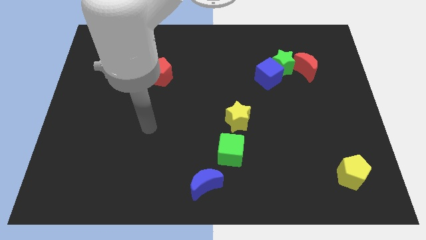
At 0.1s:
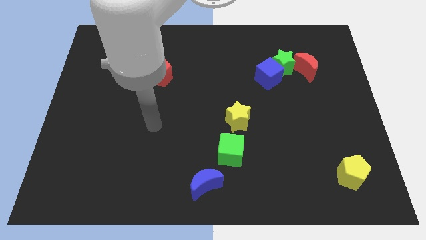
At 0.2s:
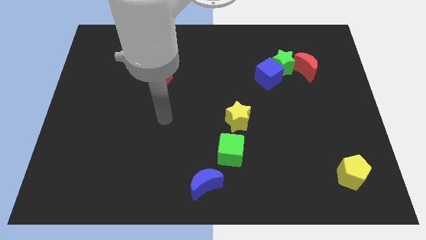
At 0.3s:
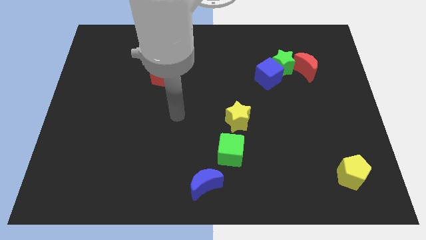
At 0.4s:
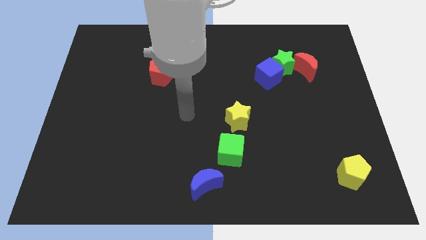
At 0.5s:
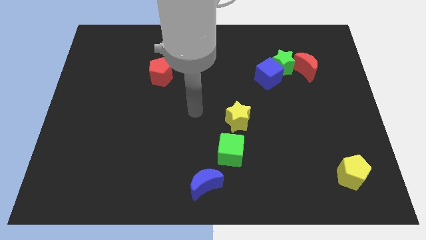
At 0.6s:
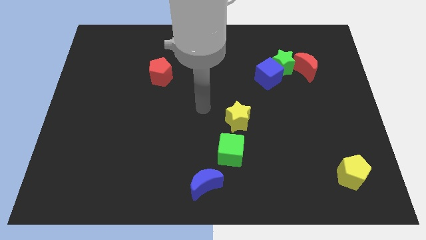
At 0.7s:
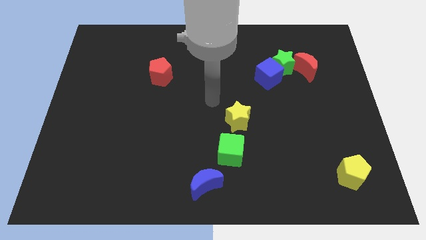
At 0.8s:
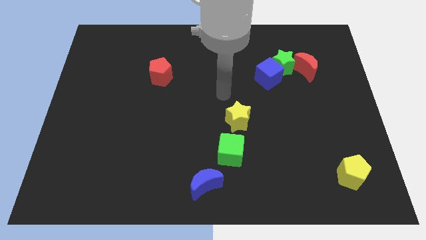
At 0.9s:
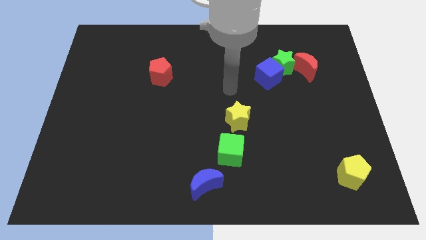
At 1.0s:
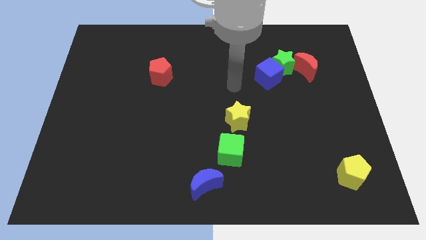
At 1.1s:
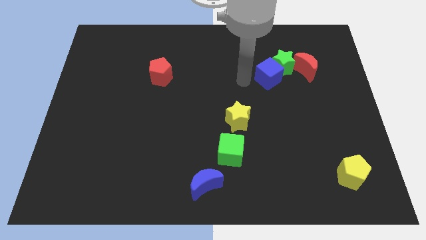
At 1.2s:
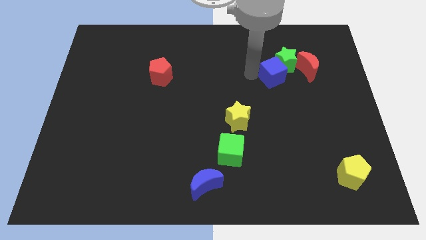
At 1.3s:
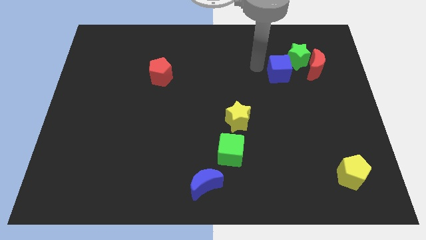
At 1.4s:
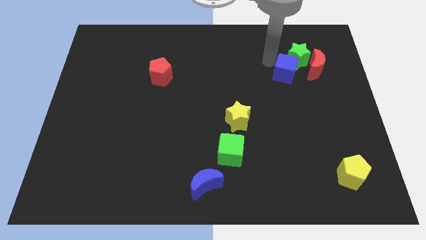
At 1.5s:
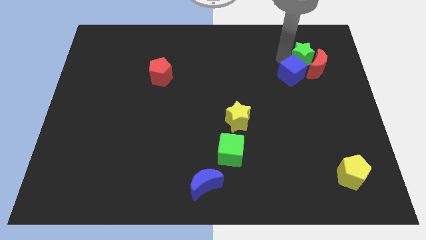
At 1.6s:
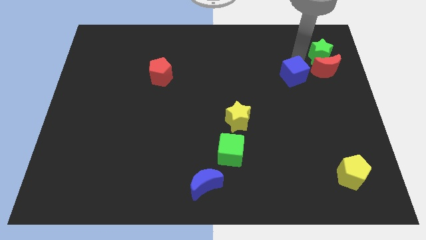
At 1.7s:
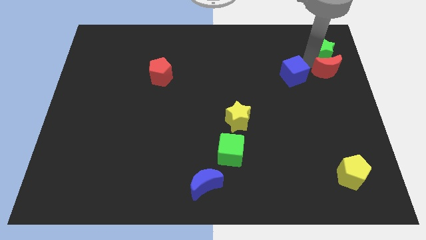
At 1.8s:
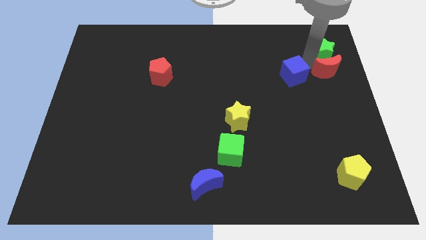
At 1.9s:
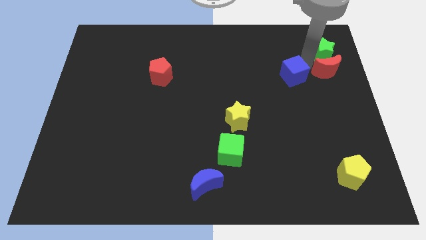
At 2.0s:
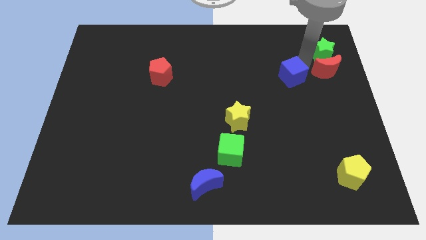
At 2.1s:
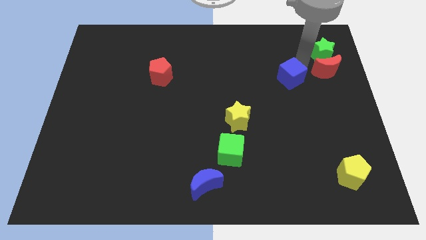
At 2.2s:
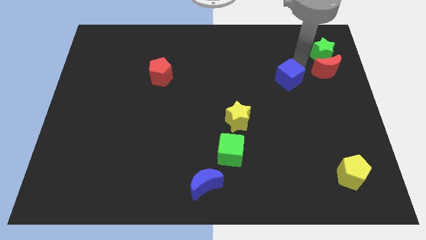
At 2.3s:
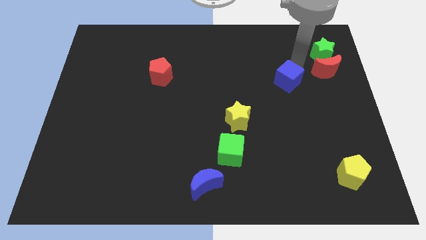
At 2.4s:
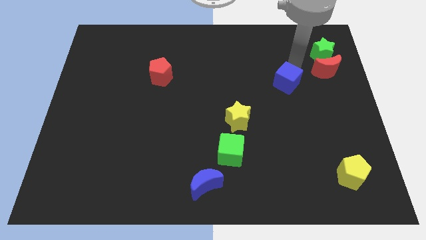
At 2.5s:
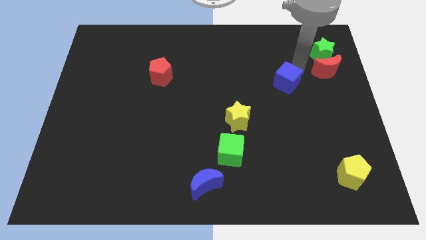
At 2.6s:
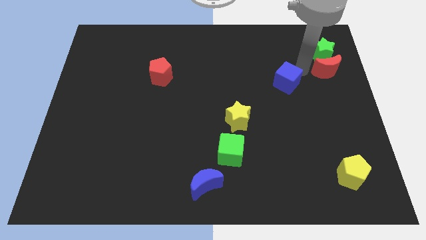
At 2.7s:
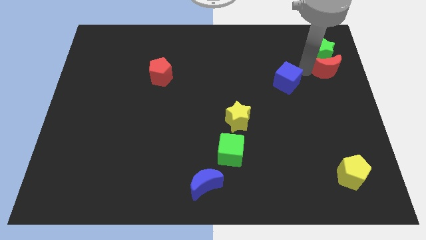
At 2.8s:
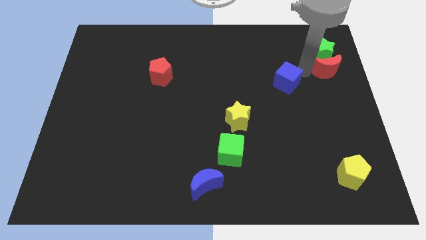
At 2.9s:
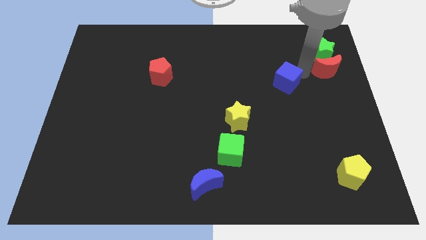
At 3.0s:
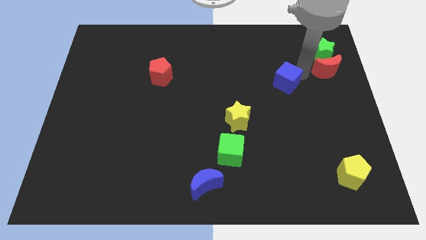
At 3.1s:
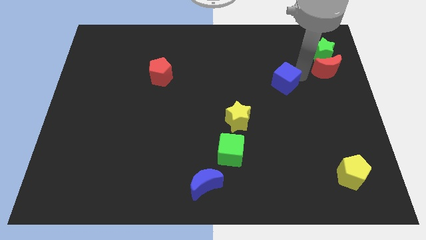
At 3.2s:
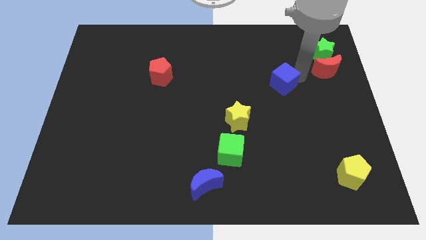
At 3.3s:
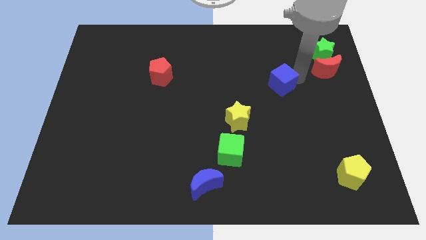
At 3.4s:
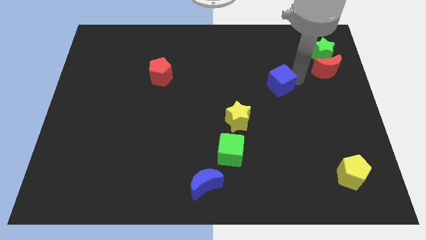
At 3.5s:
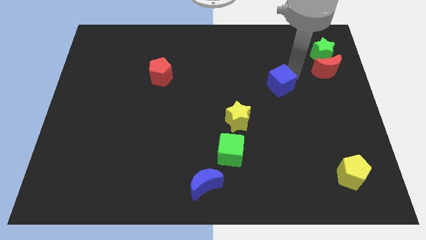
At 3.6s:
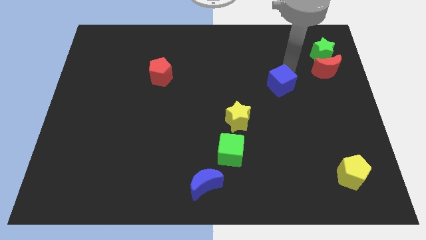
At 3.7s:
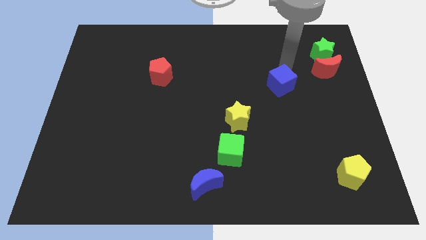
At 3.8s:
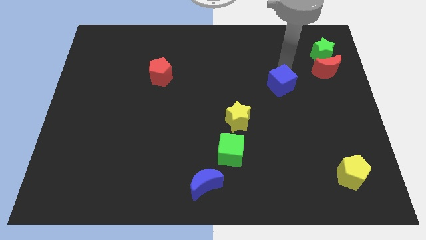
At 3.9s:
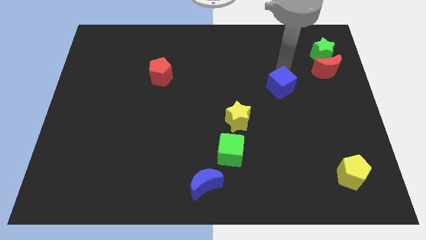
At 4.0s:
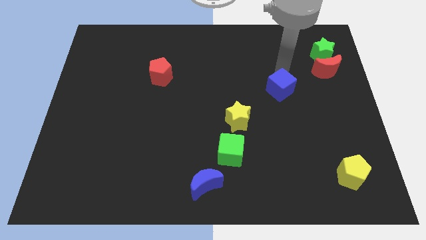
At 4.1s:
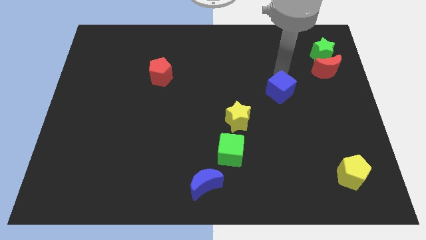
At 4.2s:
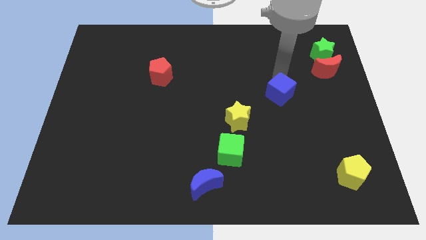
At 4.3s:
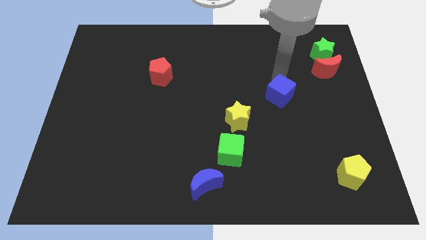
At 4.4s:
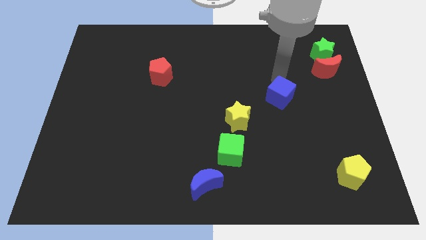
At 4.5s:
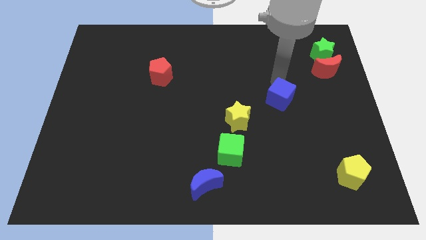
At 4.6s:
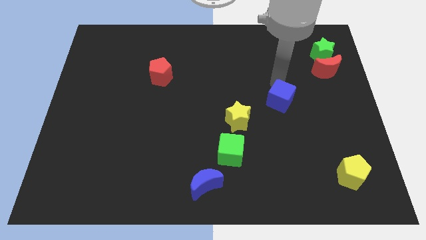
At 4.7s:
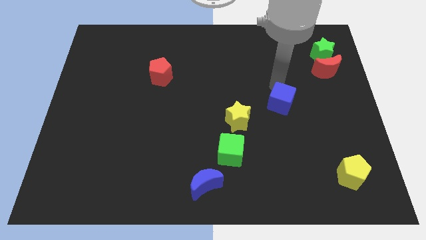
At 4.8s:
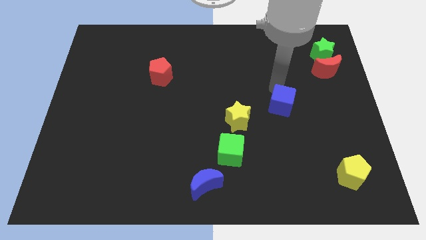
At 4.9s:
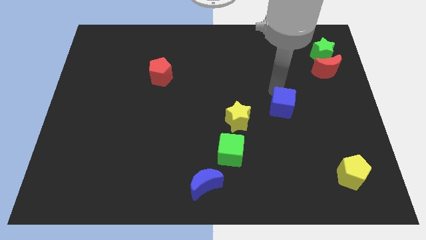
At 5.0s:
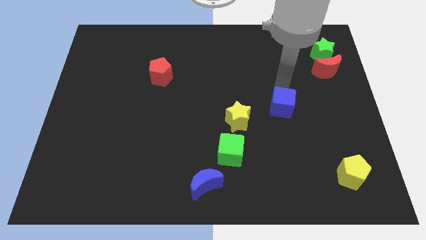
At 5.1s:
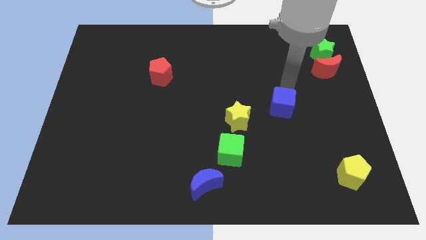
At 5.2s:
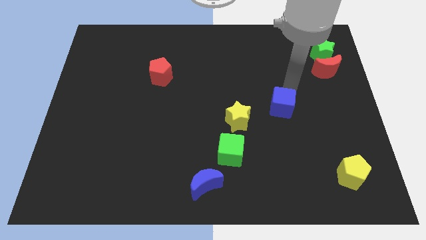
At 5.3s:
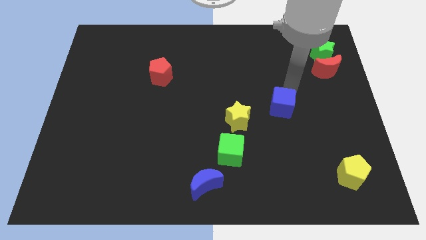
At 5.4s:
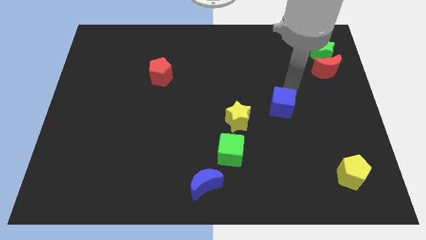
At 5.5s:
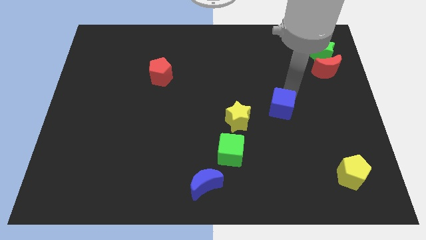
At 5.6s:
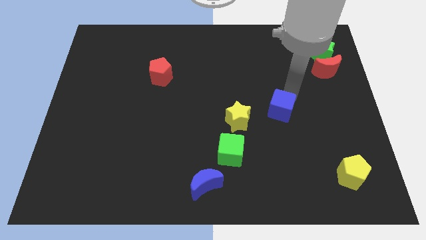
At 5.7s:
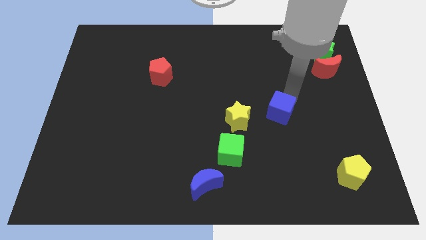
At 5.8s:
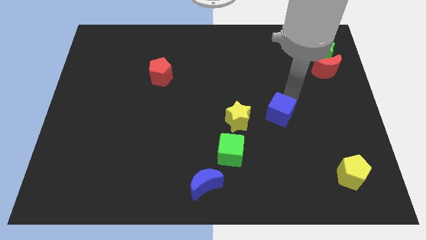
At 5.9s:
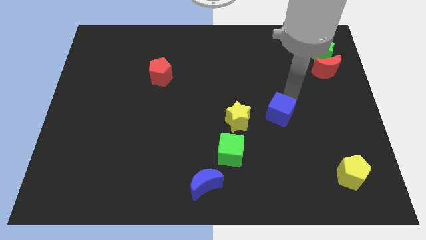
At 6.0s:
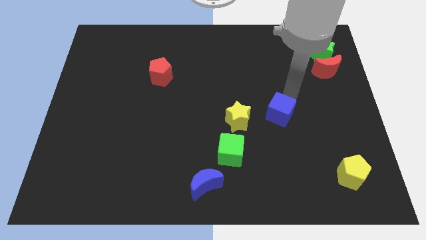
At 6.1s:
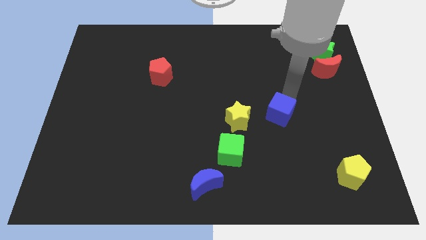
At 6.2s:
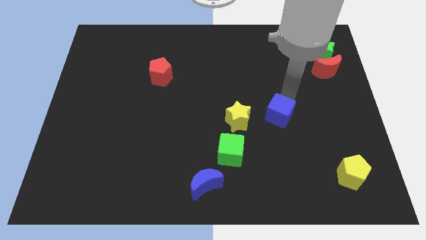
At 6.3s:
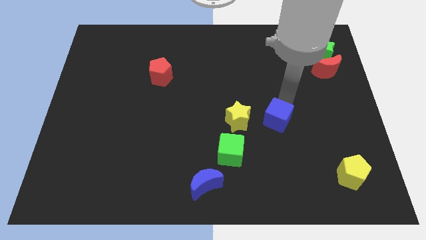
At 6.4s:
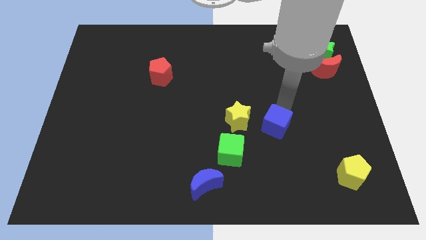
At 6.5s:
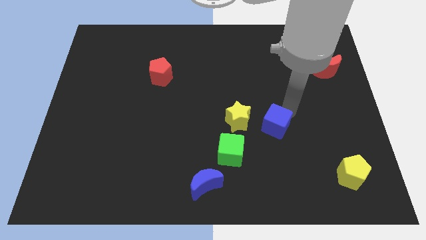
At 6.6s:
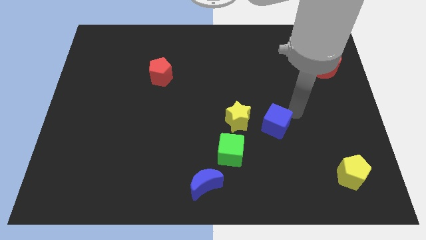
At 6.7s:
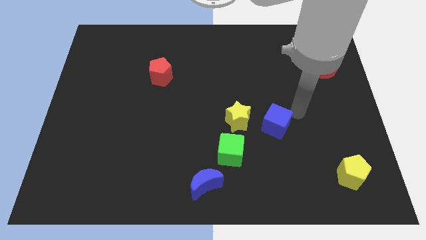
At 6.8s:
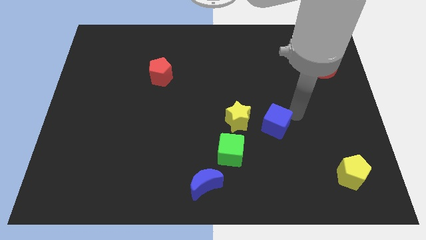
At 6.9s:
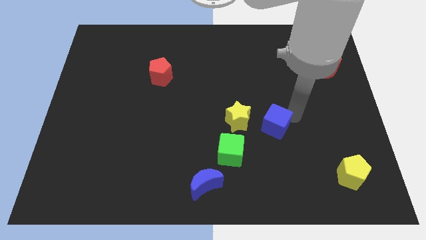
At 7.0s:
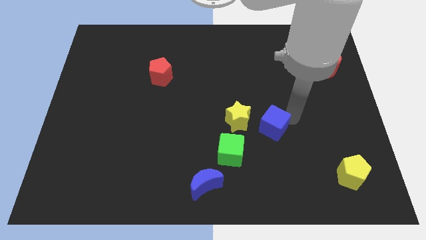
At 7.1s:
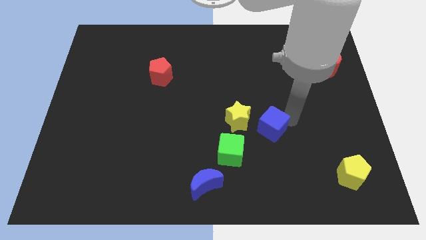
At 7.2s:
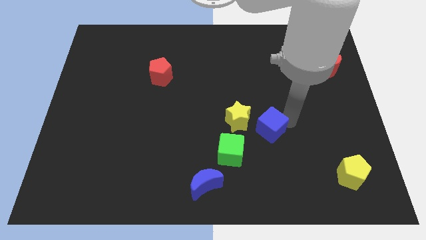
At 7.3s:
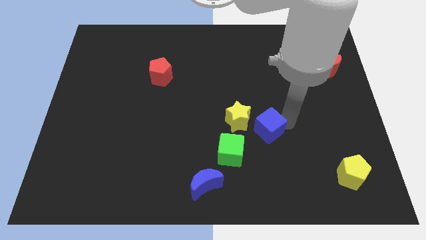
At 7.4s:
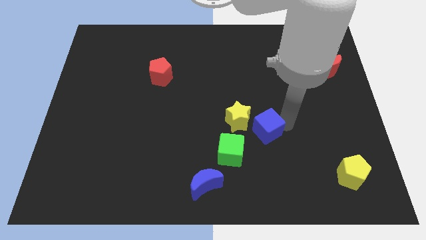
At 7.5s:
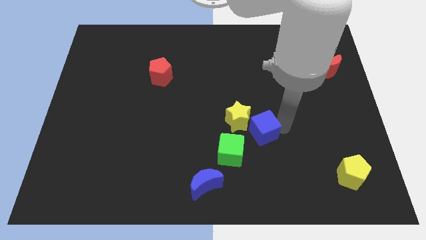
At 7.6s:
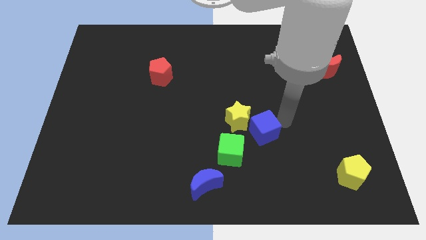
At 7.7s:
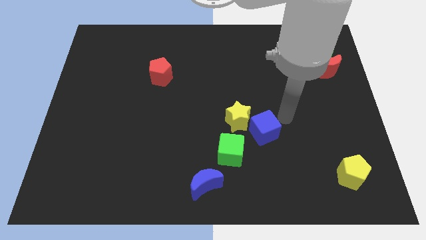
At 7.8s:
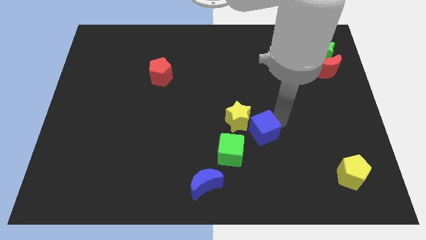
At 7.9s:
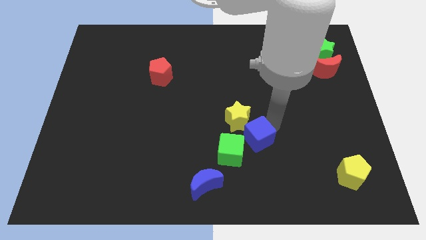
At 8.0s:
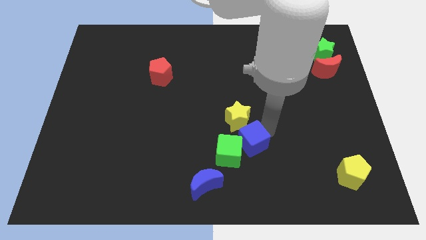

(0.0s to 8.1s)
push the blue cube towards the green cube
